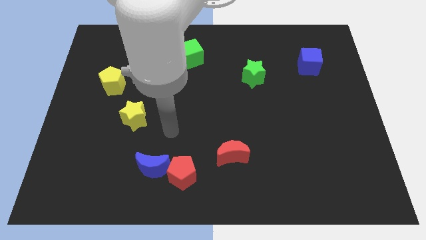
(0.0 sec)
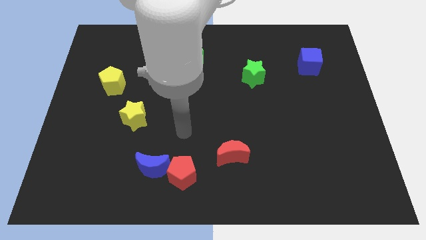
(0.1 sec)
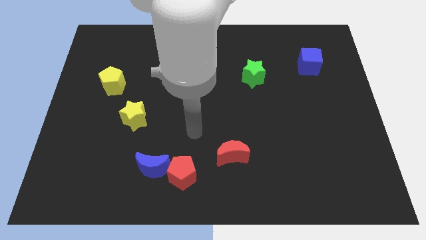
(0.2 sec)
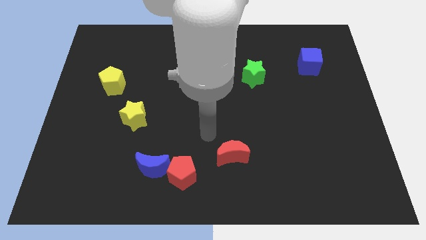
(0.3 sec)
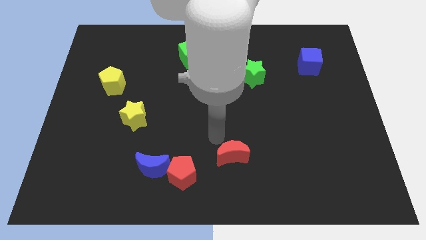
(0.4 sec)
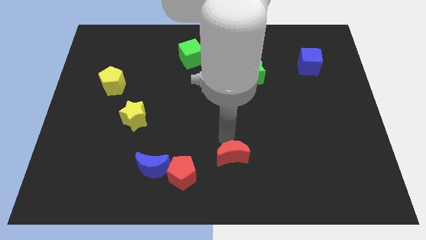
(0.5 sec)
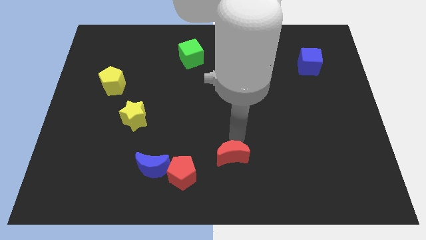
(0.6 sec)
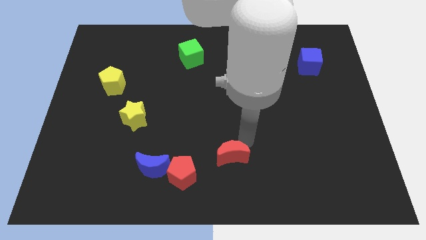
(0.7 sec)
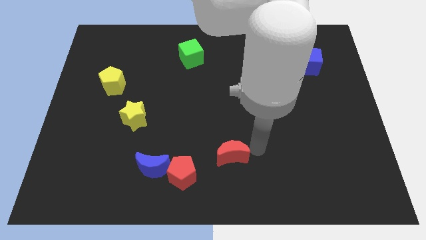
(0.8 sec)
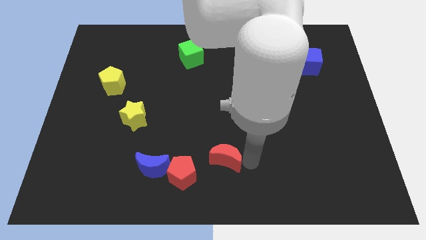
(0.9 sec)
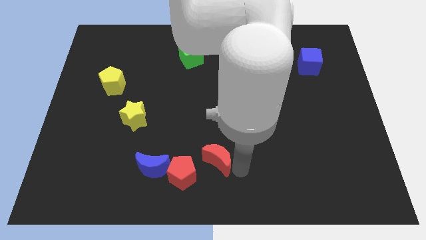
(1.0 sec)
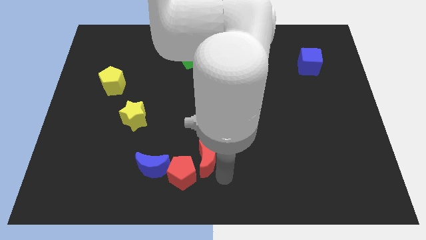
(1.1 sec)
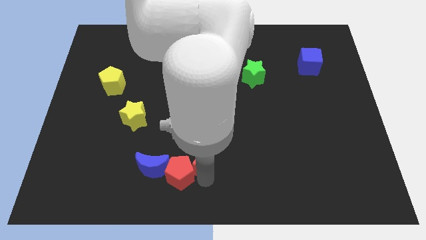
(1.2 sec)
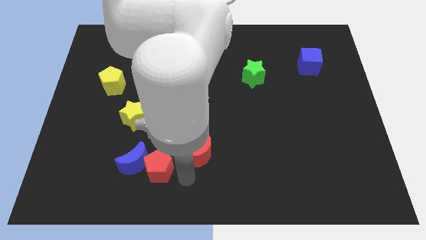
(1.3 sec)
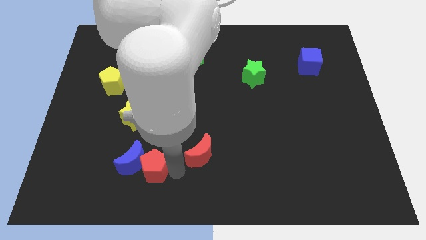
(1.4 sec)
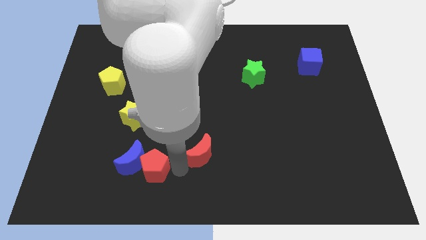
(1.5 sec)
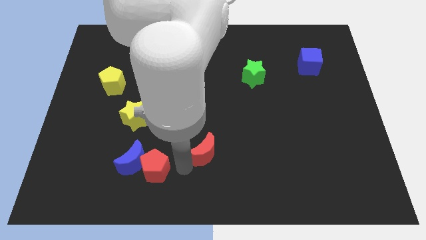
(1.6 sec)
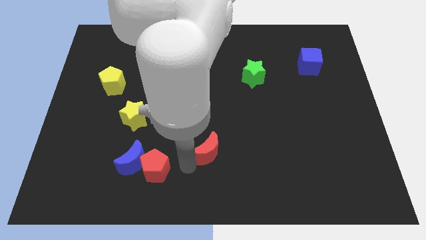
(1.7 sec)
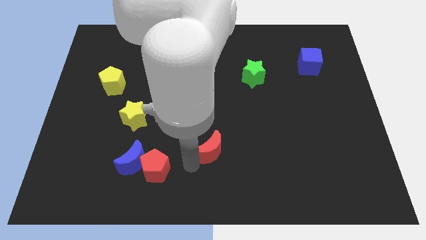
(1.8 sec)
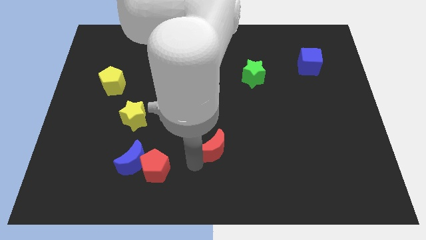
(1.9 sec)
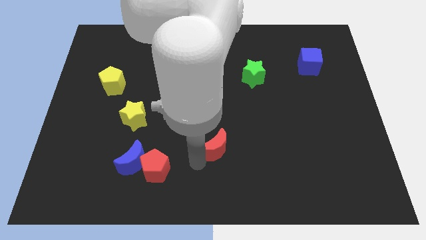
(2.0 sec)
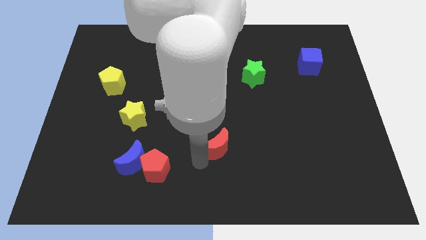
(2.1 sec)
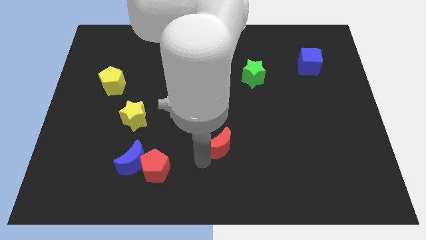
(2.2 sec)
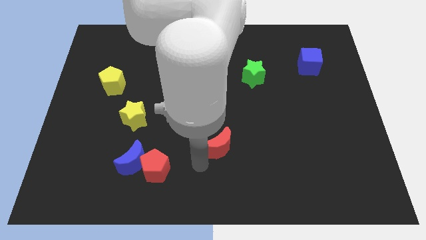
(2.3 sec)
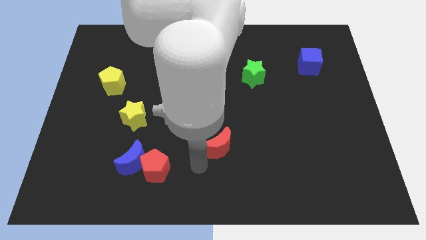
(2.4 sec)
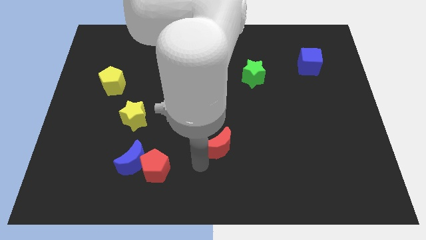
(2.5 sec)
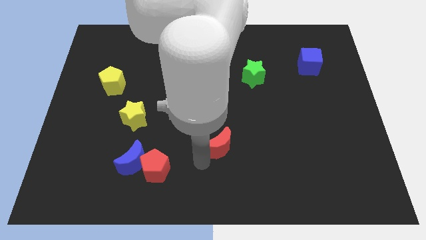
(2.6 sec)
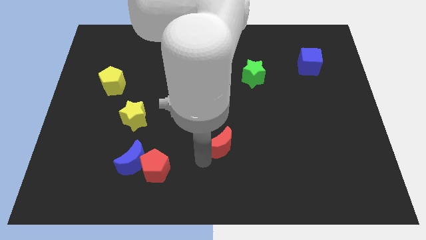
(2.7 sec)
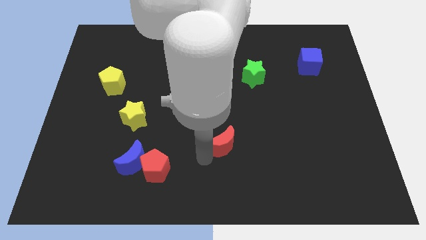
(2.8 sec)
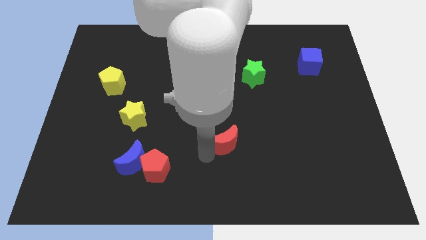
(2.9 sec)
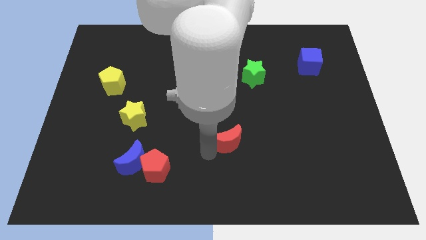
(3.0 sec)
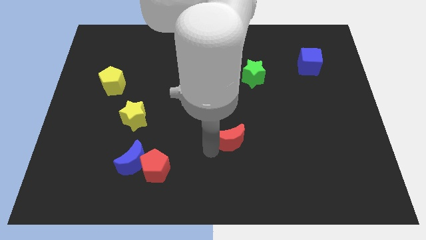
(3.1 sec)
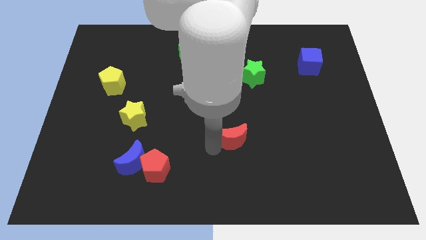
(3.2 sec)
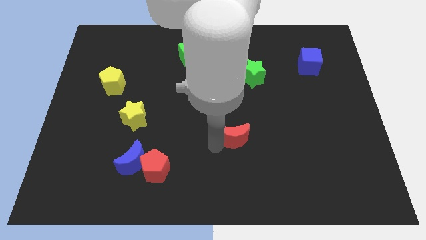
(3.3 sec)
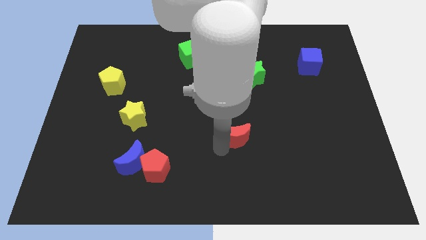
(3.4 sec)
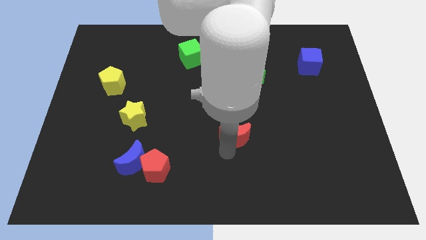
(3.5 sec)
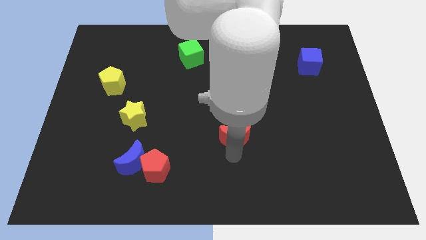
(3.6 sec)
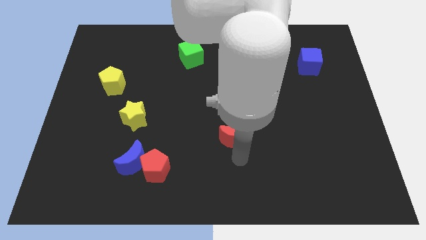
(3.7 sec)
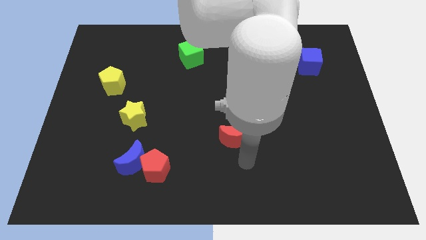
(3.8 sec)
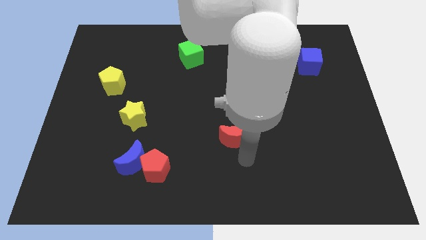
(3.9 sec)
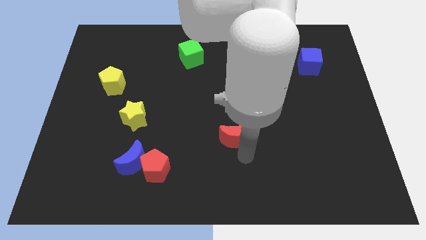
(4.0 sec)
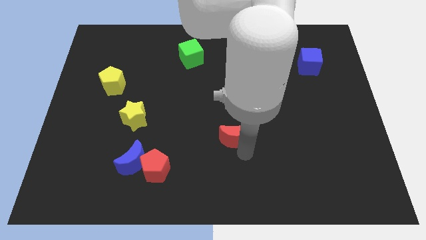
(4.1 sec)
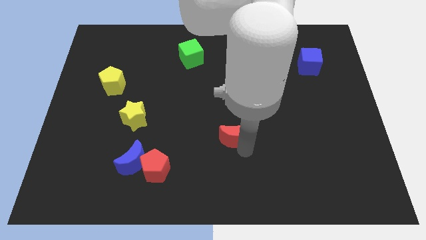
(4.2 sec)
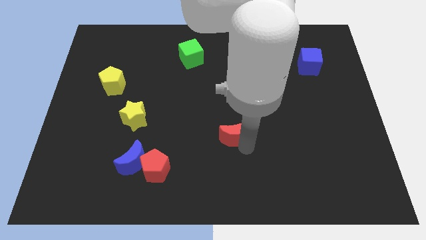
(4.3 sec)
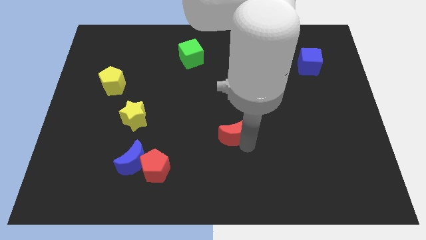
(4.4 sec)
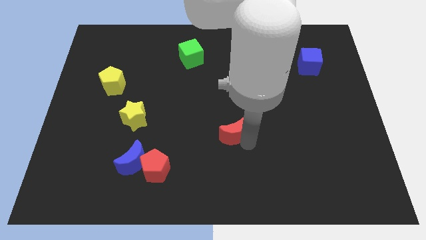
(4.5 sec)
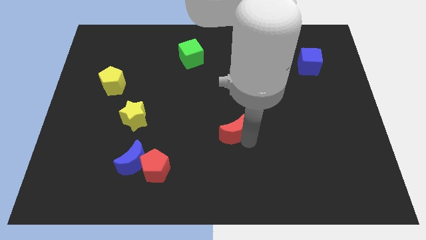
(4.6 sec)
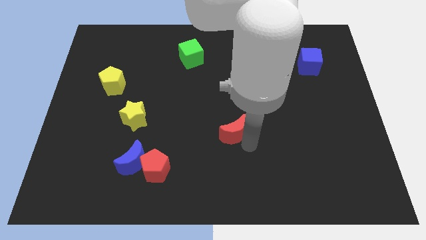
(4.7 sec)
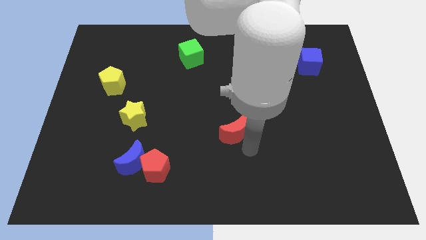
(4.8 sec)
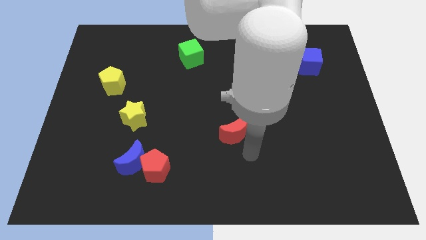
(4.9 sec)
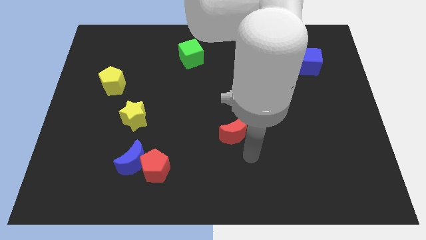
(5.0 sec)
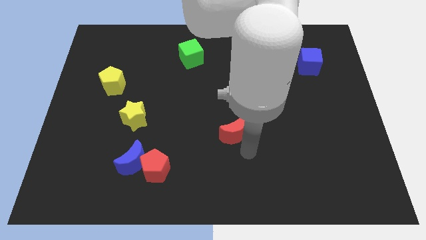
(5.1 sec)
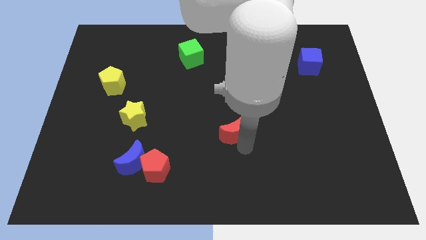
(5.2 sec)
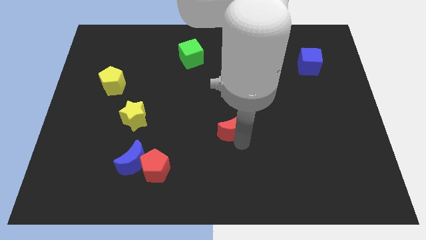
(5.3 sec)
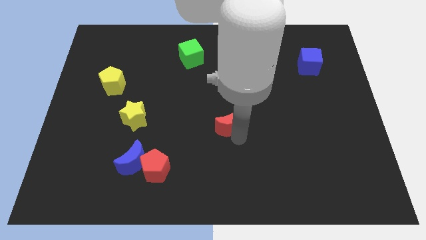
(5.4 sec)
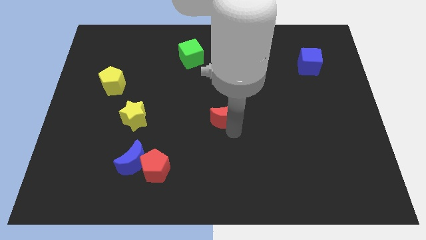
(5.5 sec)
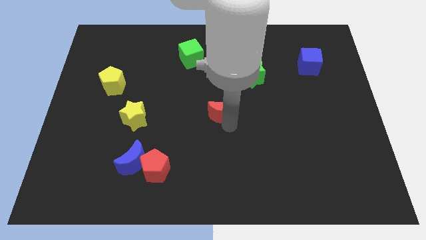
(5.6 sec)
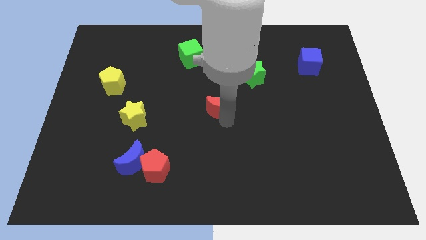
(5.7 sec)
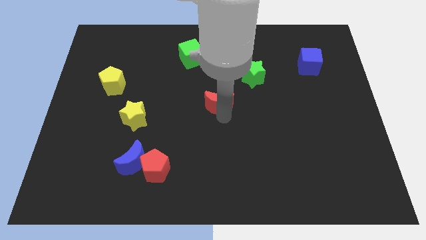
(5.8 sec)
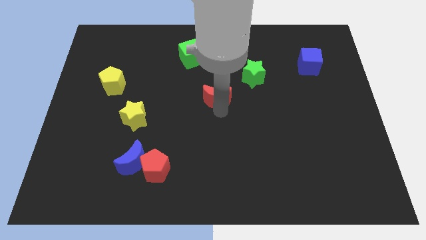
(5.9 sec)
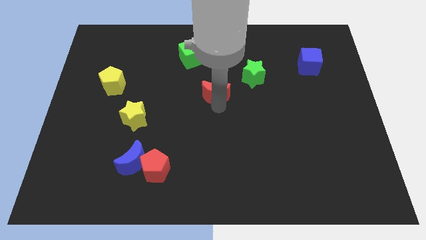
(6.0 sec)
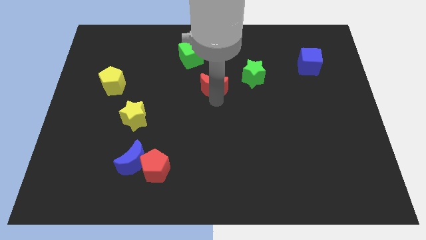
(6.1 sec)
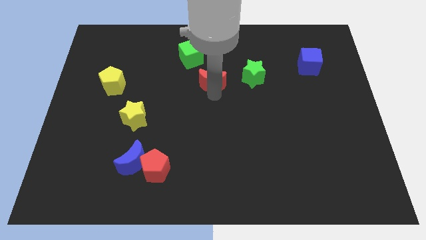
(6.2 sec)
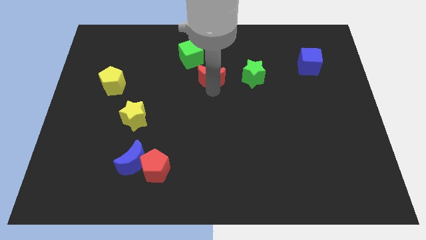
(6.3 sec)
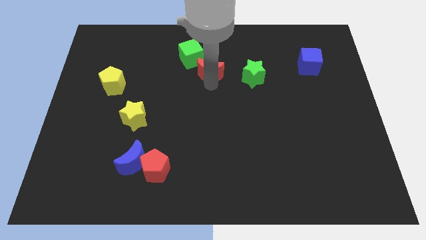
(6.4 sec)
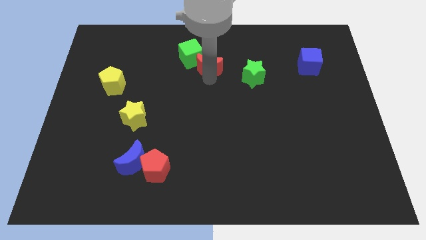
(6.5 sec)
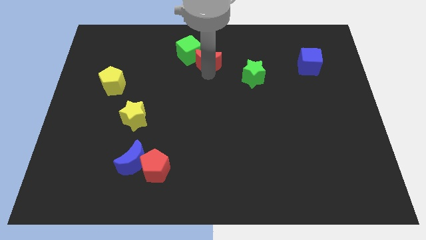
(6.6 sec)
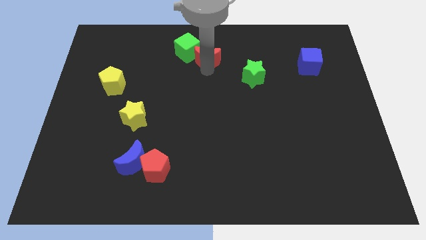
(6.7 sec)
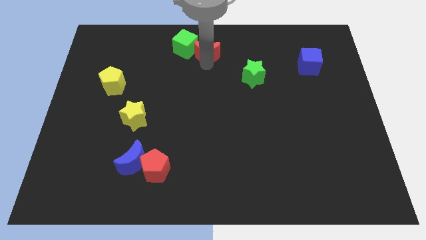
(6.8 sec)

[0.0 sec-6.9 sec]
put the red moon to the top
